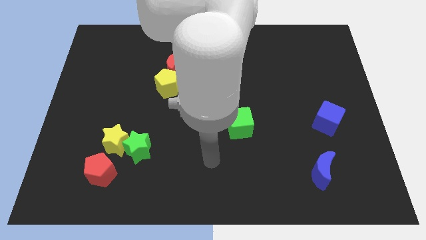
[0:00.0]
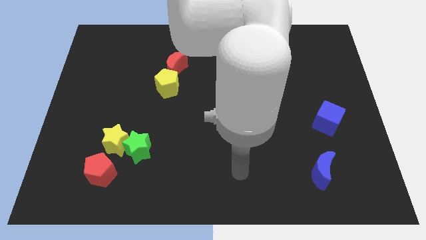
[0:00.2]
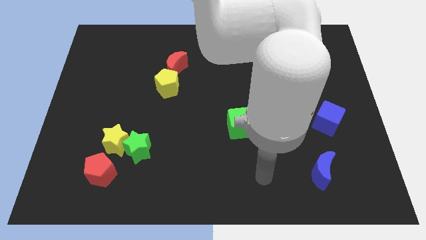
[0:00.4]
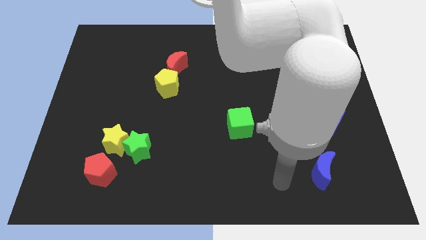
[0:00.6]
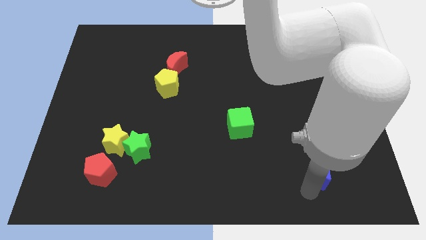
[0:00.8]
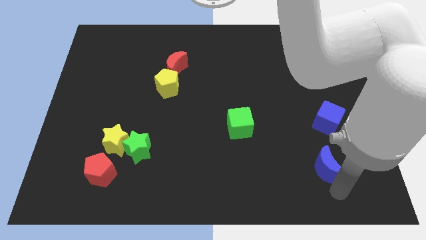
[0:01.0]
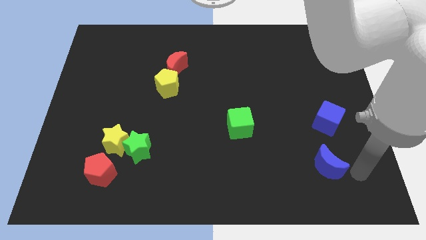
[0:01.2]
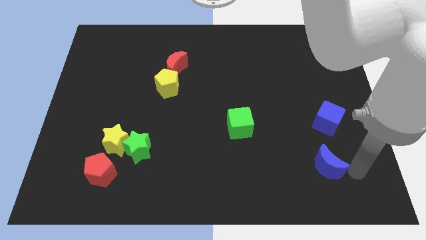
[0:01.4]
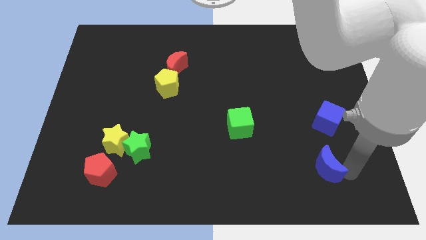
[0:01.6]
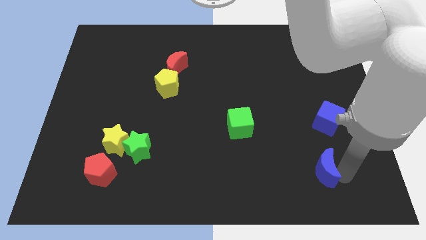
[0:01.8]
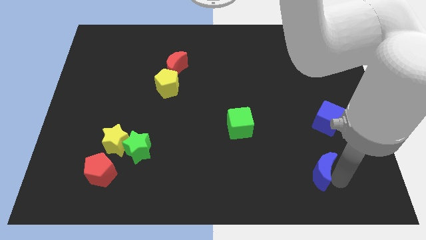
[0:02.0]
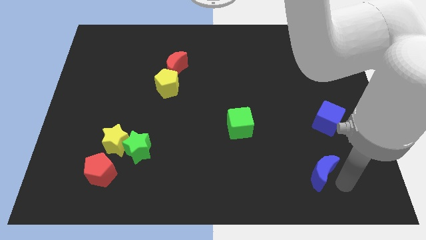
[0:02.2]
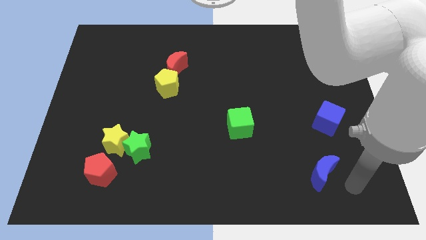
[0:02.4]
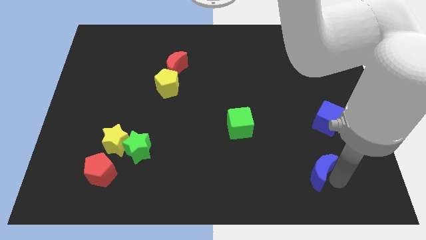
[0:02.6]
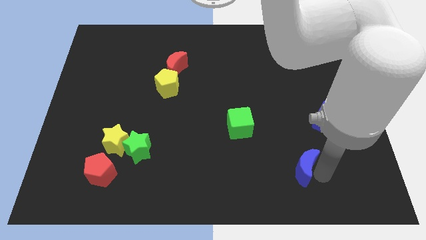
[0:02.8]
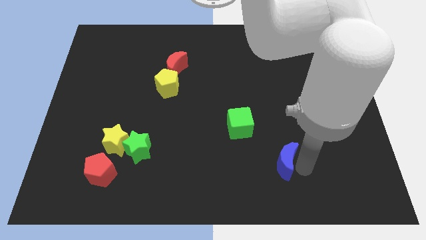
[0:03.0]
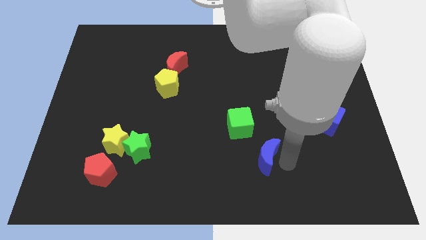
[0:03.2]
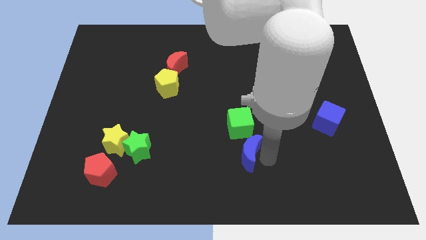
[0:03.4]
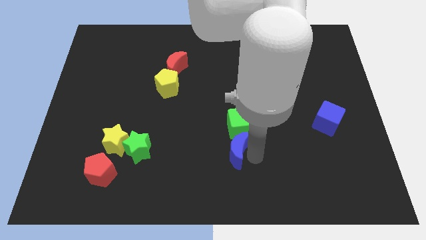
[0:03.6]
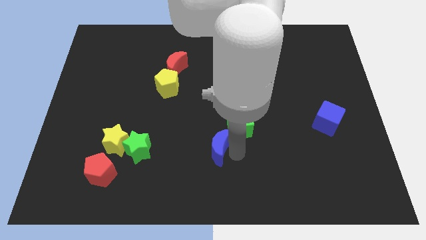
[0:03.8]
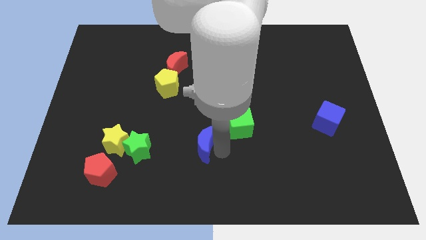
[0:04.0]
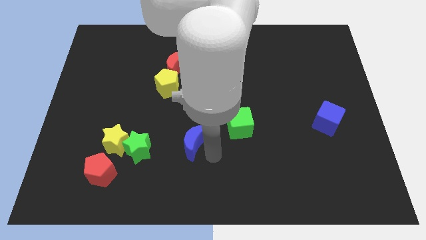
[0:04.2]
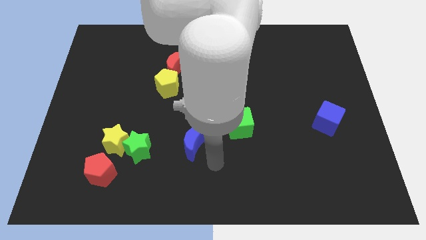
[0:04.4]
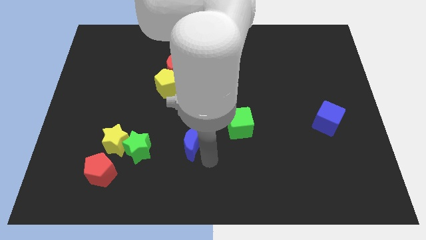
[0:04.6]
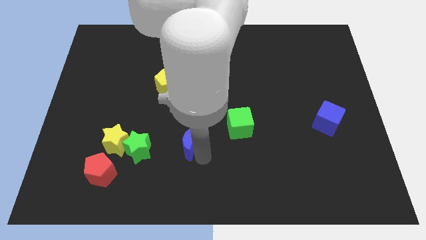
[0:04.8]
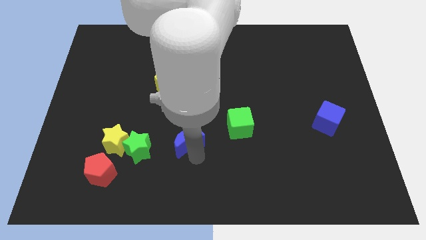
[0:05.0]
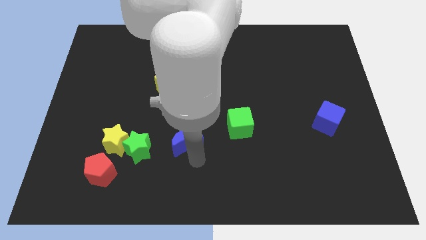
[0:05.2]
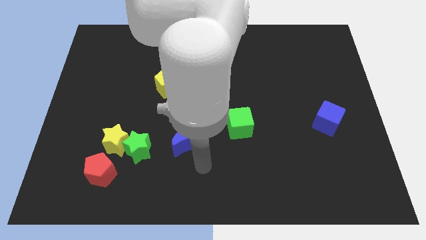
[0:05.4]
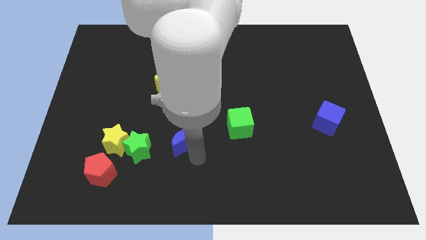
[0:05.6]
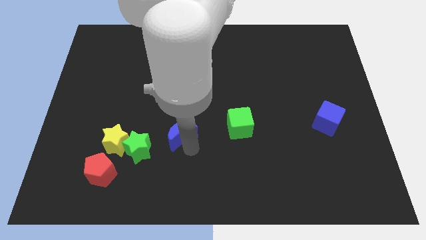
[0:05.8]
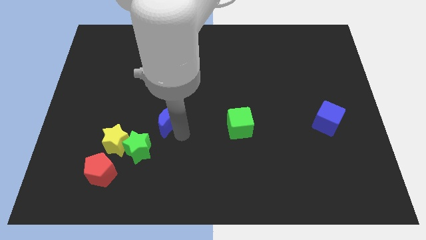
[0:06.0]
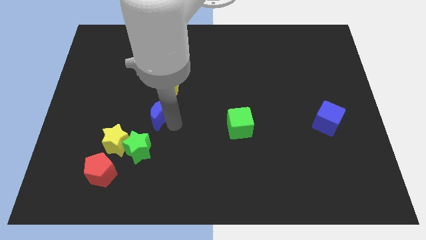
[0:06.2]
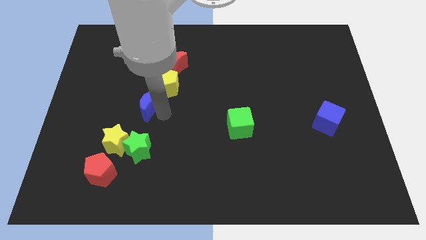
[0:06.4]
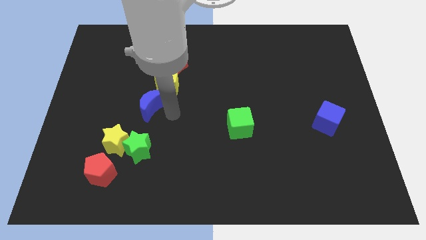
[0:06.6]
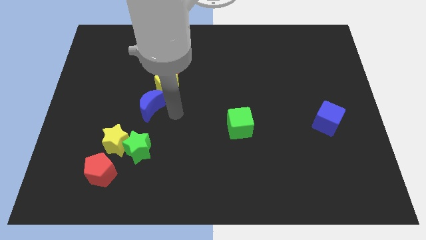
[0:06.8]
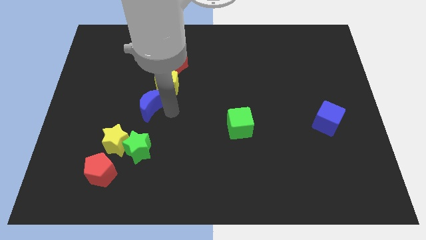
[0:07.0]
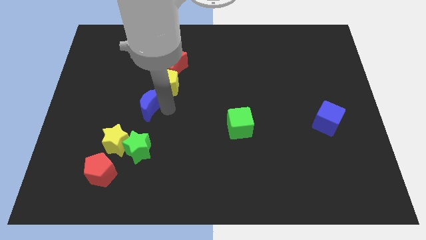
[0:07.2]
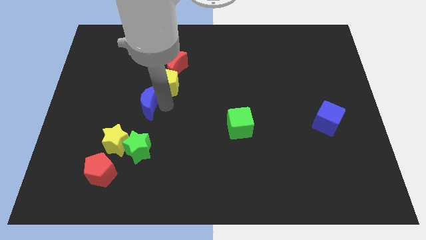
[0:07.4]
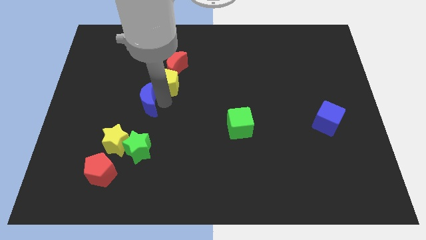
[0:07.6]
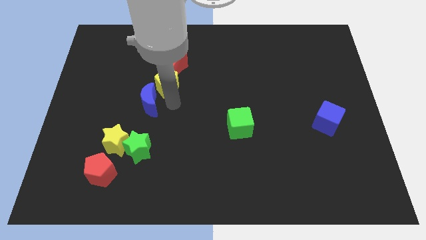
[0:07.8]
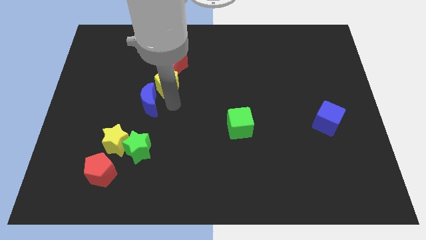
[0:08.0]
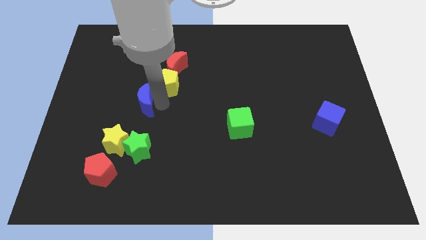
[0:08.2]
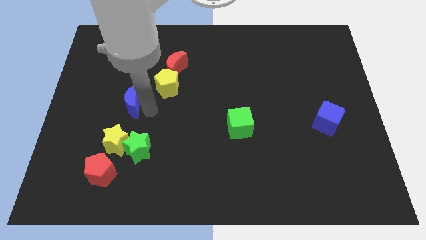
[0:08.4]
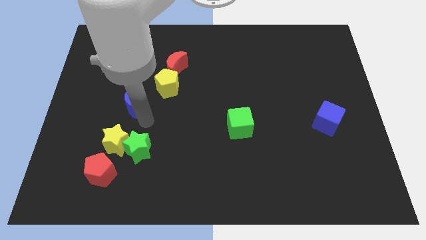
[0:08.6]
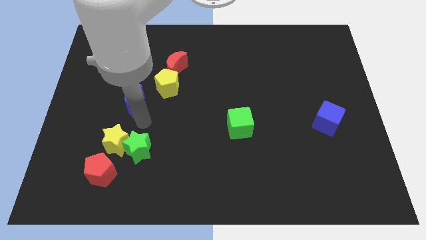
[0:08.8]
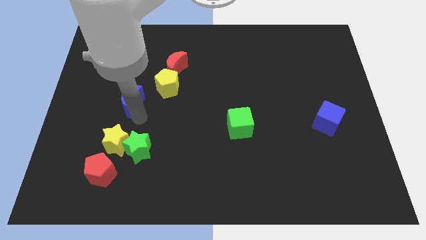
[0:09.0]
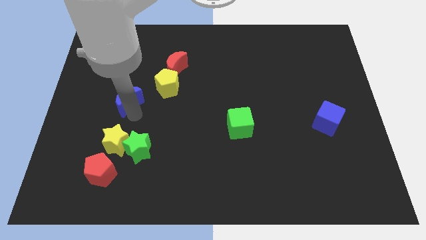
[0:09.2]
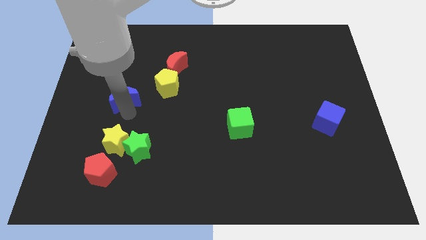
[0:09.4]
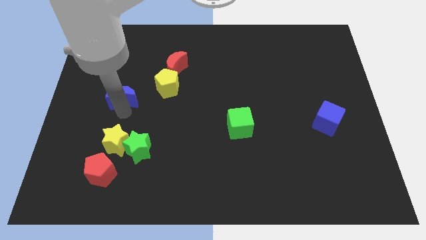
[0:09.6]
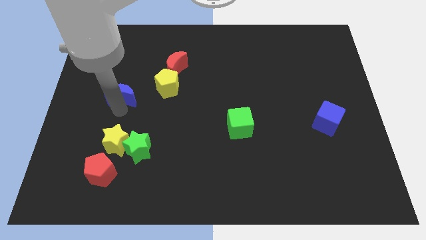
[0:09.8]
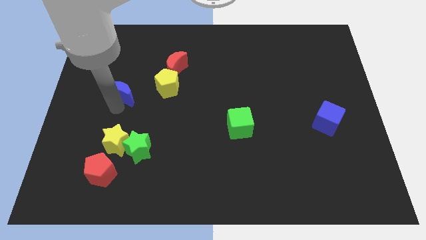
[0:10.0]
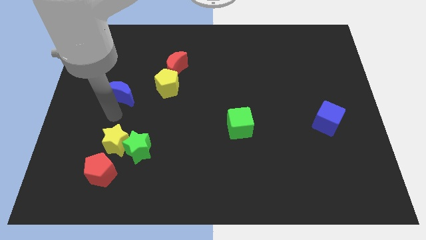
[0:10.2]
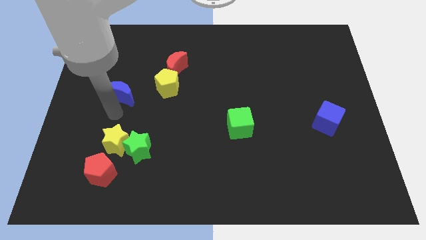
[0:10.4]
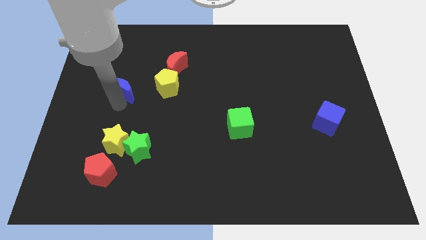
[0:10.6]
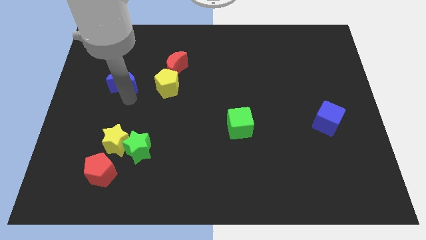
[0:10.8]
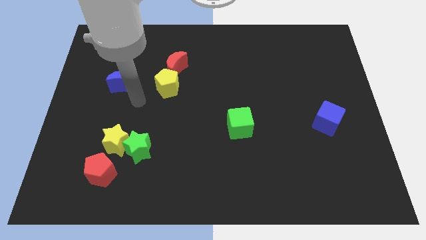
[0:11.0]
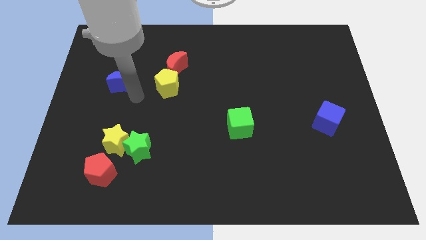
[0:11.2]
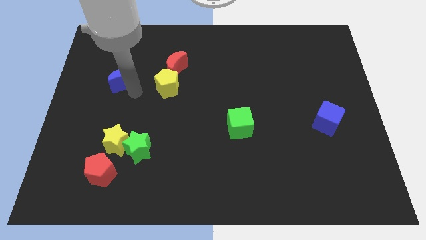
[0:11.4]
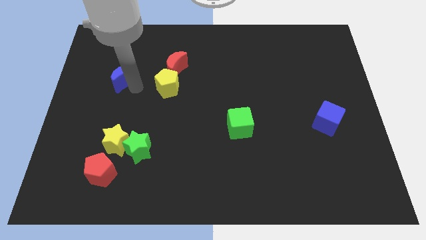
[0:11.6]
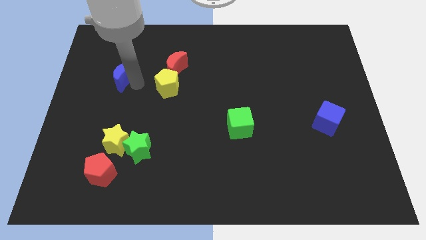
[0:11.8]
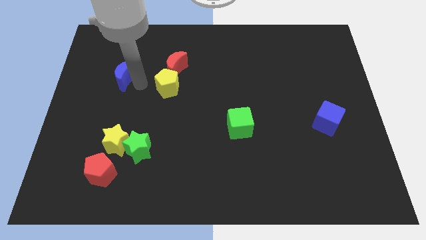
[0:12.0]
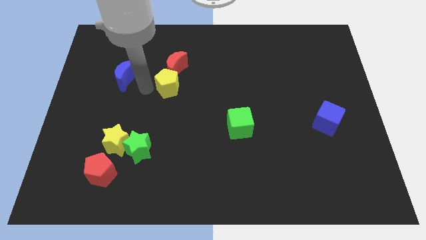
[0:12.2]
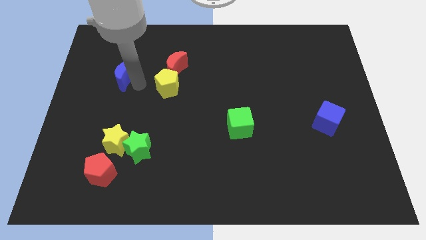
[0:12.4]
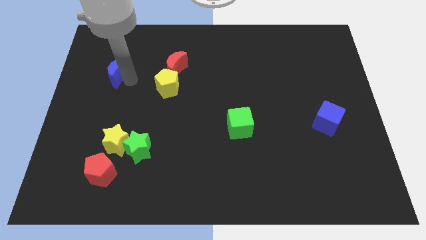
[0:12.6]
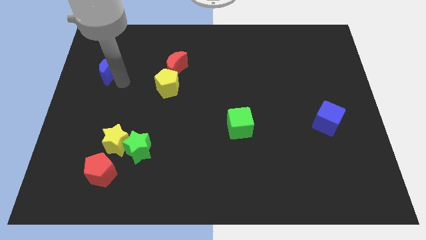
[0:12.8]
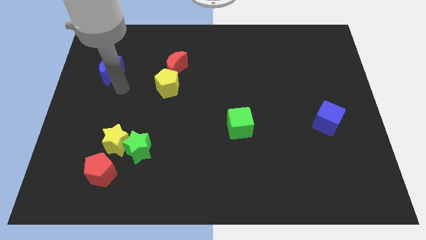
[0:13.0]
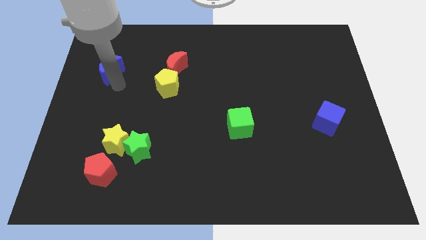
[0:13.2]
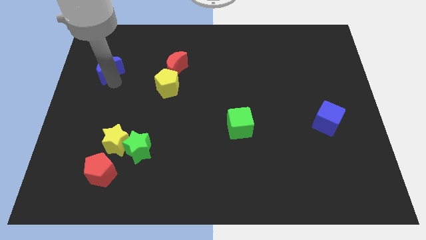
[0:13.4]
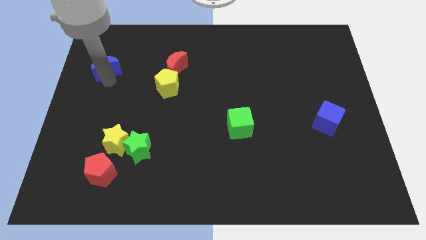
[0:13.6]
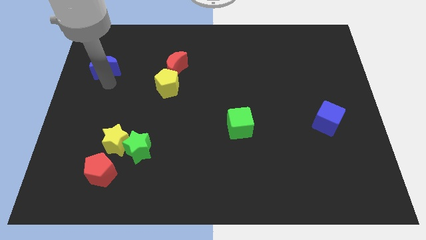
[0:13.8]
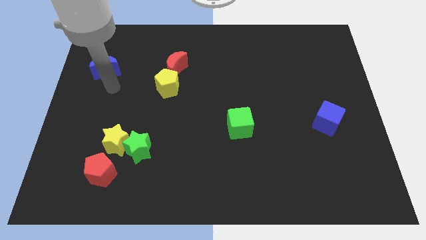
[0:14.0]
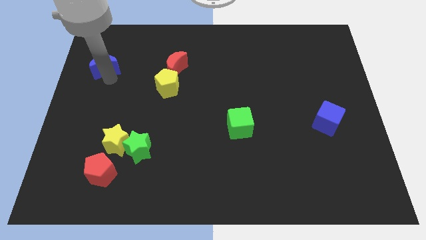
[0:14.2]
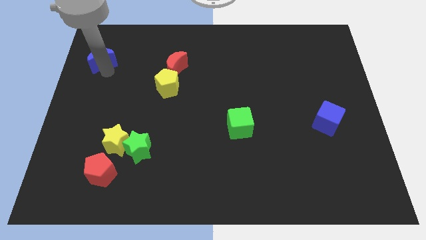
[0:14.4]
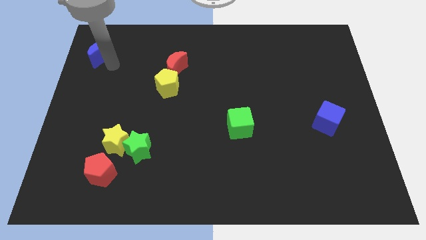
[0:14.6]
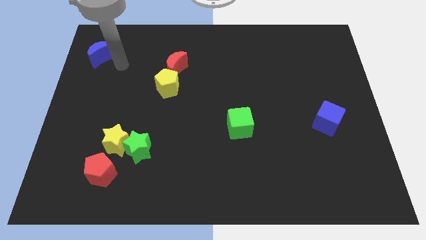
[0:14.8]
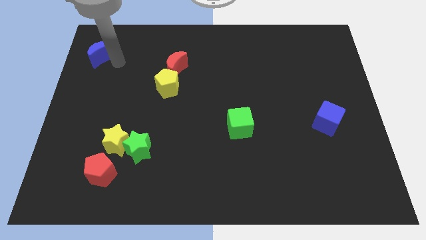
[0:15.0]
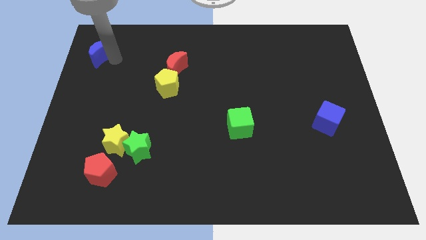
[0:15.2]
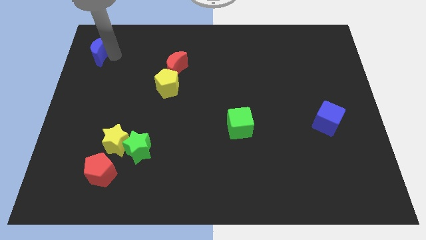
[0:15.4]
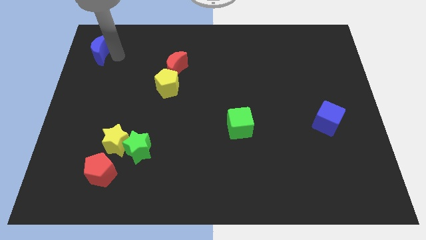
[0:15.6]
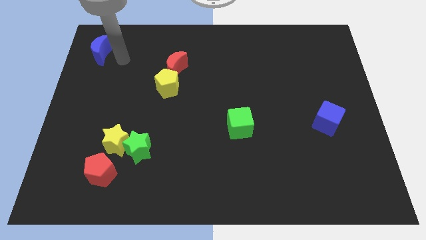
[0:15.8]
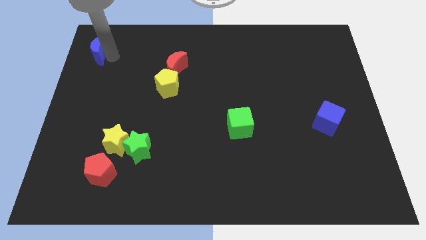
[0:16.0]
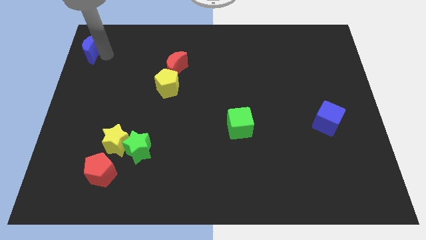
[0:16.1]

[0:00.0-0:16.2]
slide the blue moon to the top left
